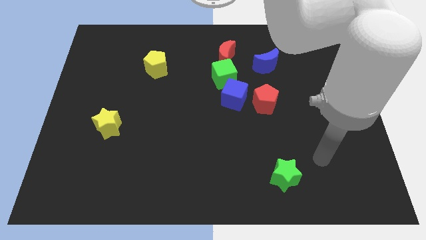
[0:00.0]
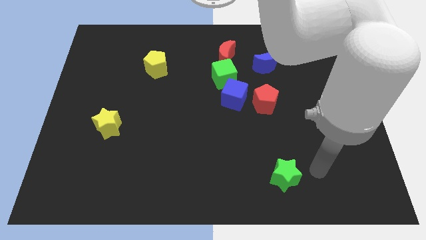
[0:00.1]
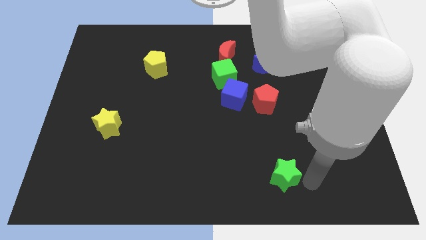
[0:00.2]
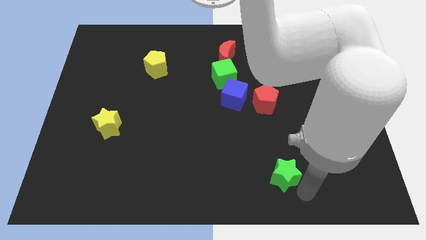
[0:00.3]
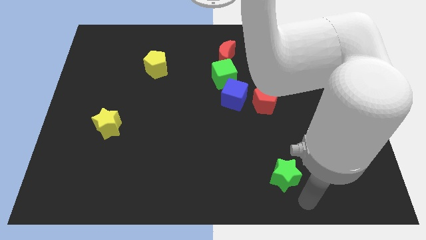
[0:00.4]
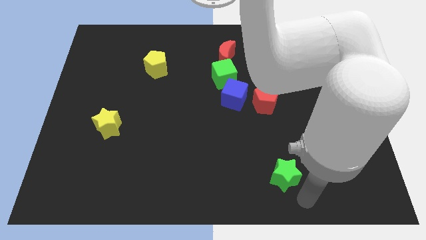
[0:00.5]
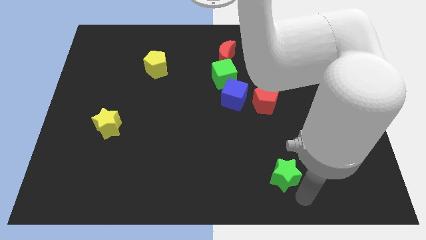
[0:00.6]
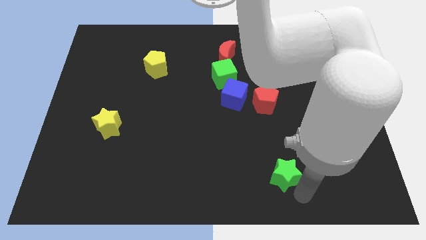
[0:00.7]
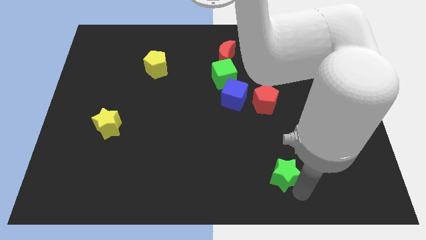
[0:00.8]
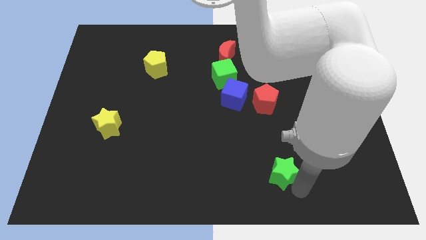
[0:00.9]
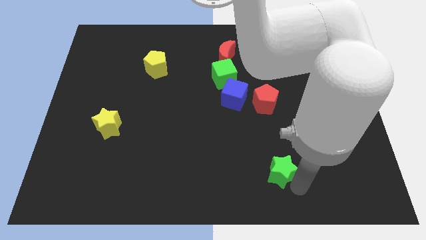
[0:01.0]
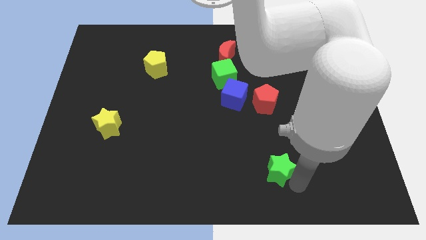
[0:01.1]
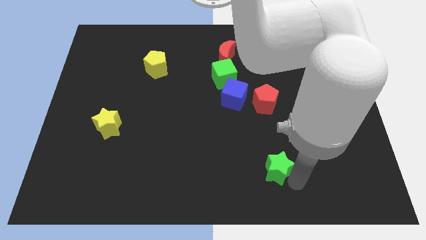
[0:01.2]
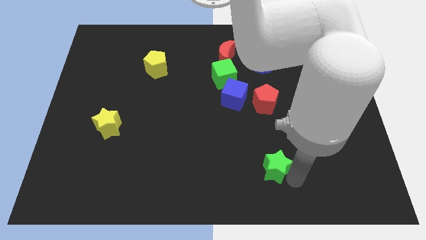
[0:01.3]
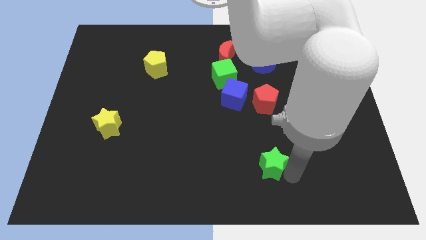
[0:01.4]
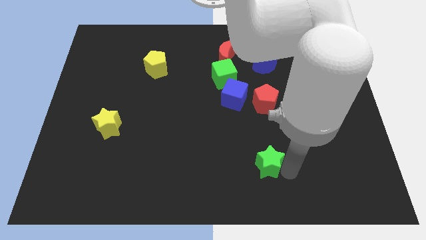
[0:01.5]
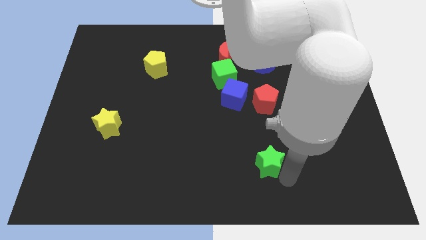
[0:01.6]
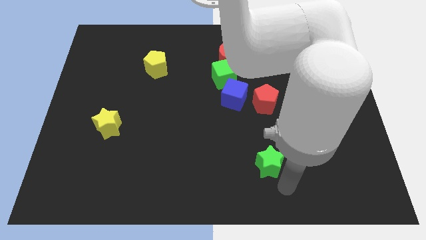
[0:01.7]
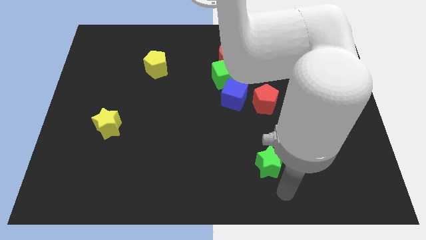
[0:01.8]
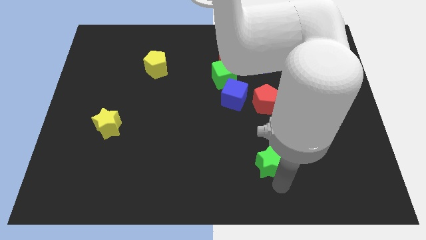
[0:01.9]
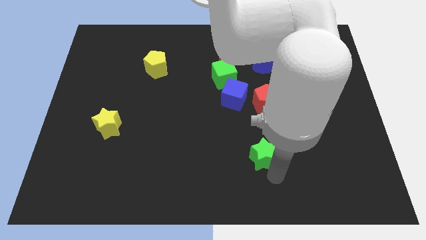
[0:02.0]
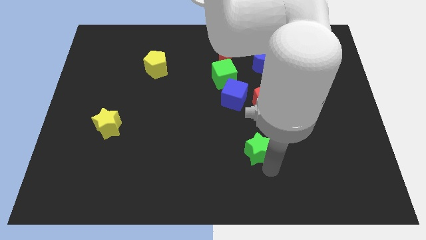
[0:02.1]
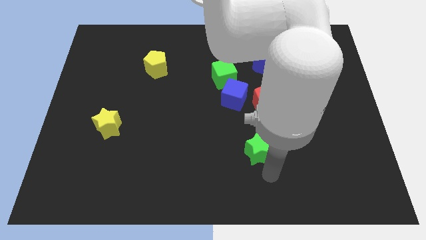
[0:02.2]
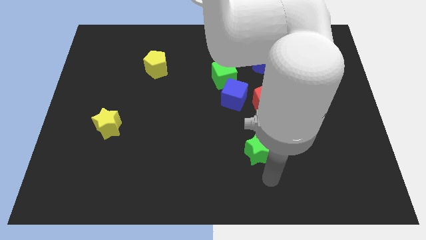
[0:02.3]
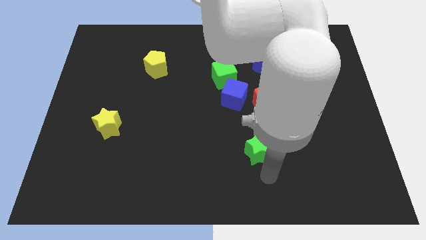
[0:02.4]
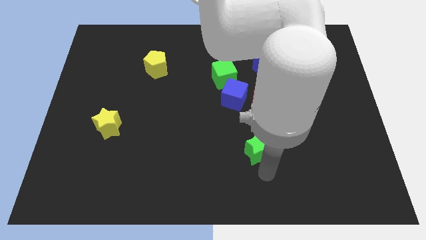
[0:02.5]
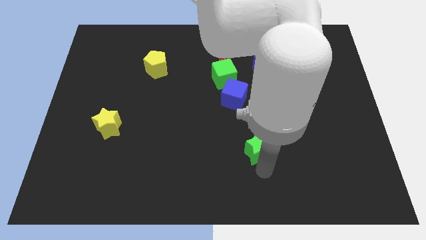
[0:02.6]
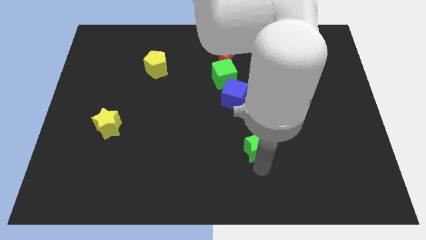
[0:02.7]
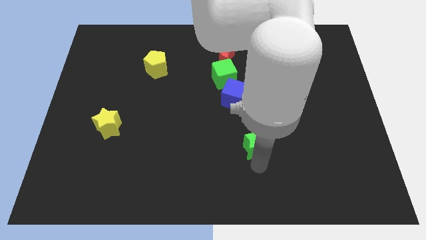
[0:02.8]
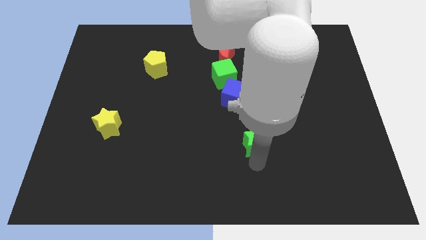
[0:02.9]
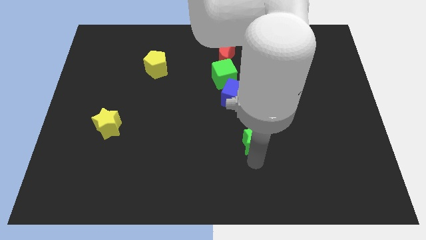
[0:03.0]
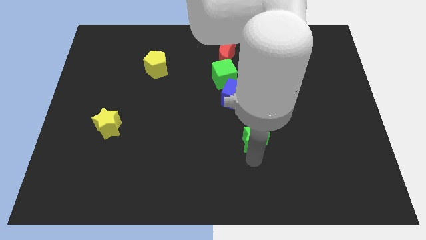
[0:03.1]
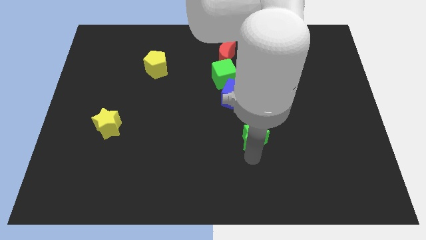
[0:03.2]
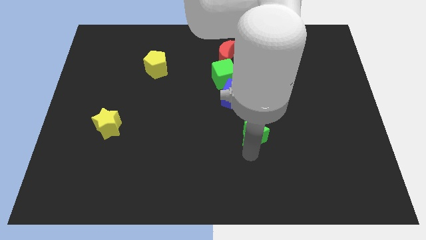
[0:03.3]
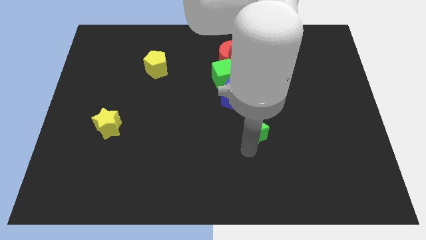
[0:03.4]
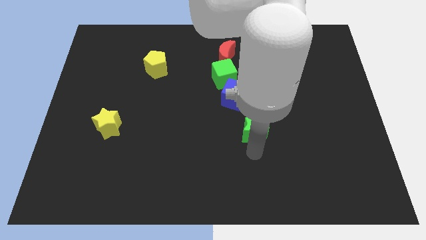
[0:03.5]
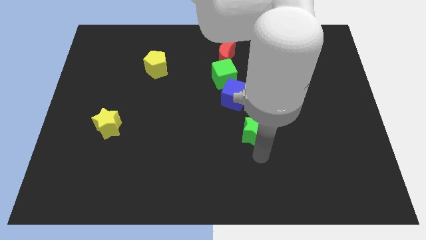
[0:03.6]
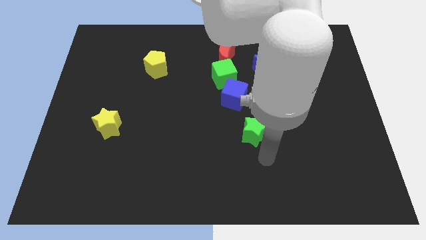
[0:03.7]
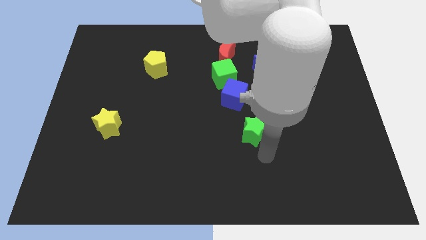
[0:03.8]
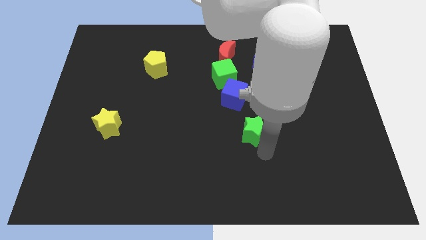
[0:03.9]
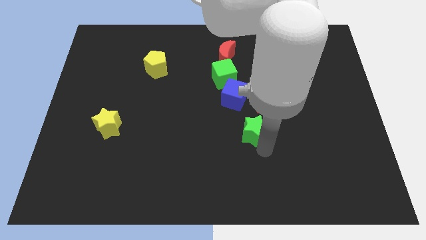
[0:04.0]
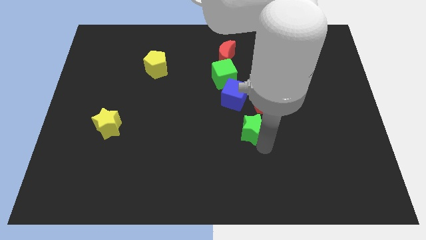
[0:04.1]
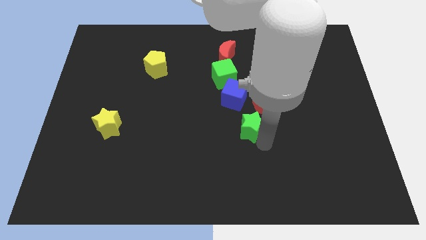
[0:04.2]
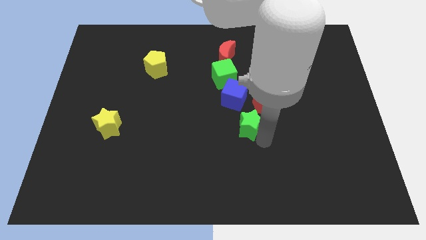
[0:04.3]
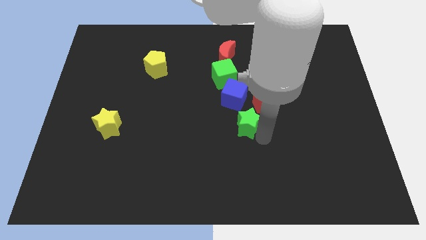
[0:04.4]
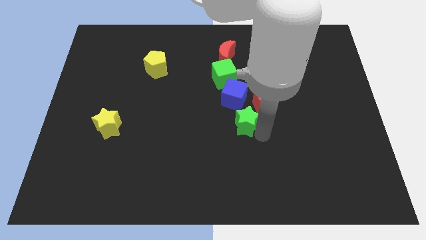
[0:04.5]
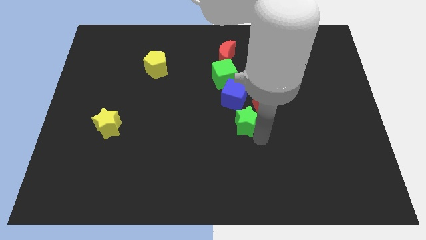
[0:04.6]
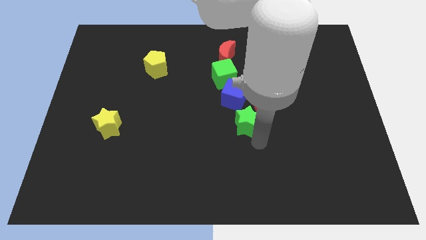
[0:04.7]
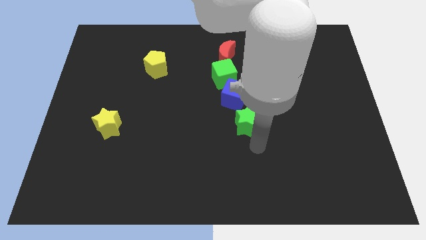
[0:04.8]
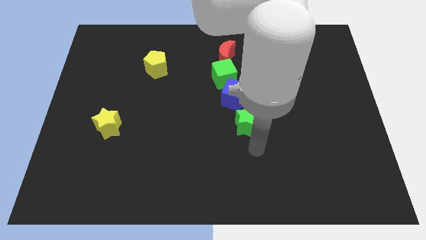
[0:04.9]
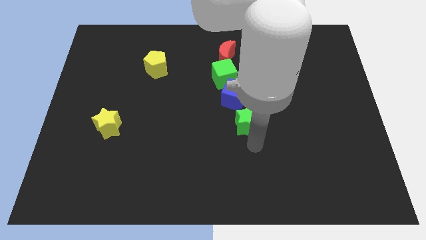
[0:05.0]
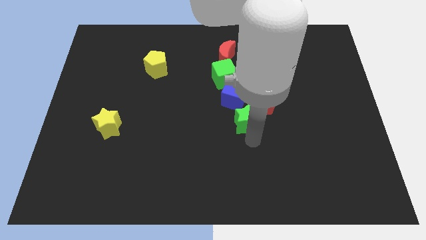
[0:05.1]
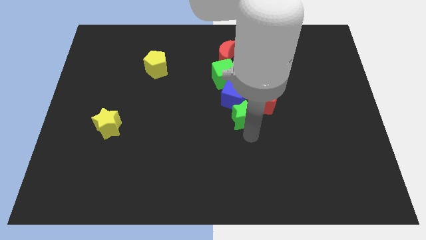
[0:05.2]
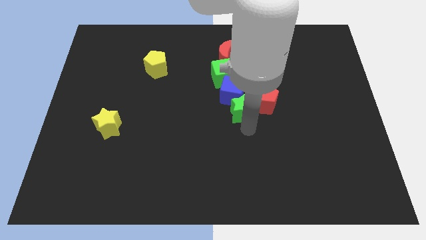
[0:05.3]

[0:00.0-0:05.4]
slide the green star towards the blue cube

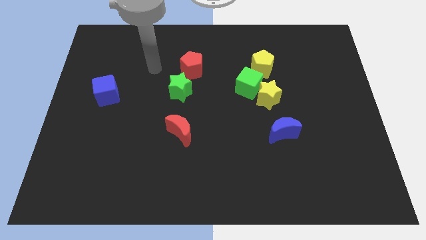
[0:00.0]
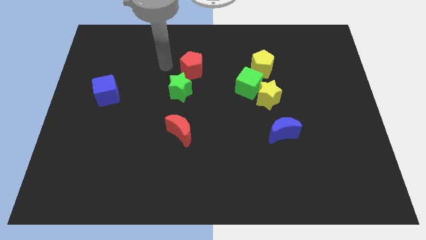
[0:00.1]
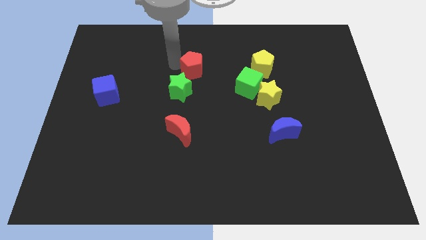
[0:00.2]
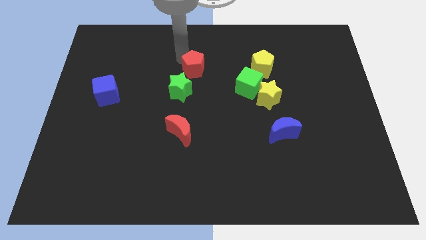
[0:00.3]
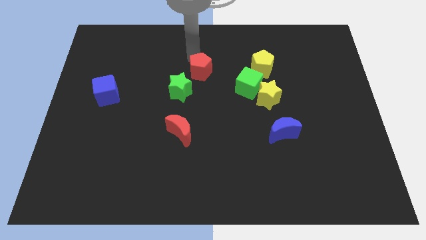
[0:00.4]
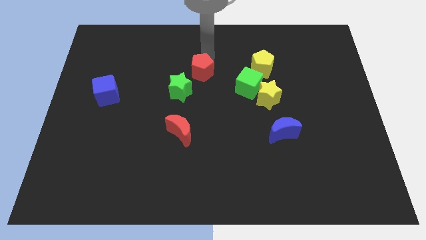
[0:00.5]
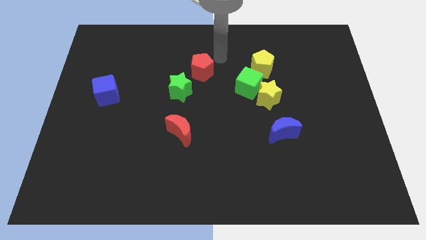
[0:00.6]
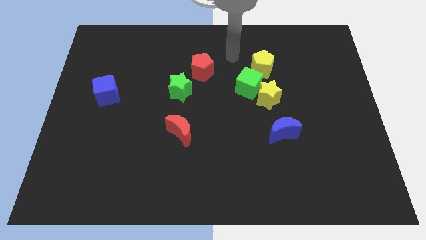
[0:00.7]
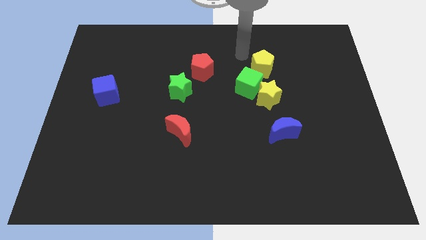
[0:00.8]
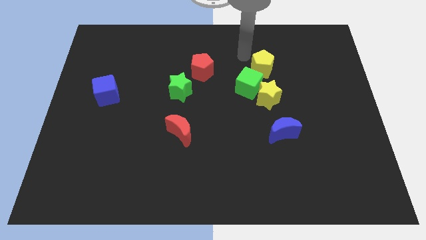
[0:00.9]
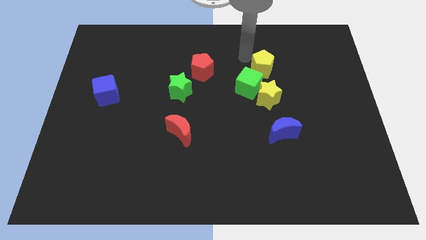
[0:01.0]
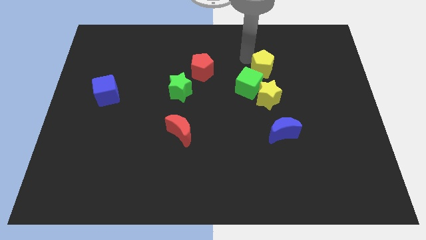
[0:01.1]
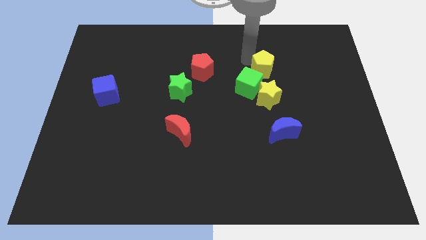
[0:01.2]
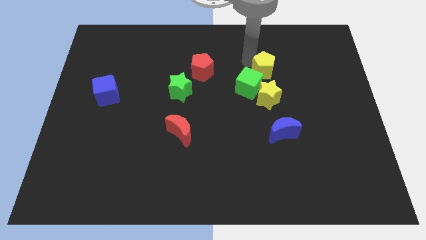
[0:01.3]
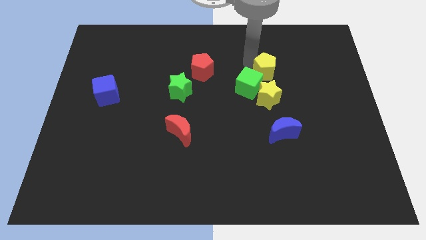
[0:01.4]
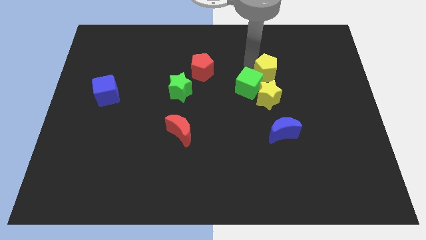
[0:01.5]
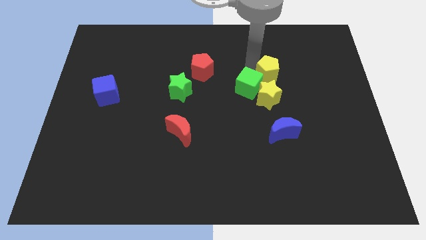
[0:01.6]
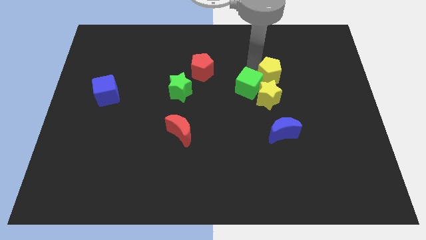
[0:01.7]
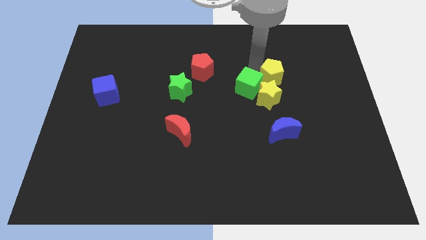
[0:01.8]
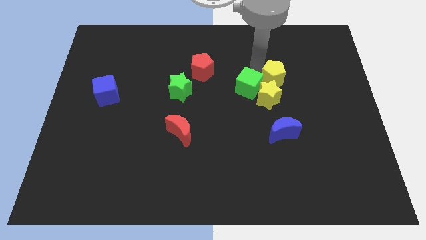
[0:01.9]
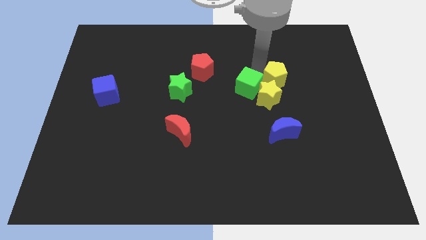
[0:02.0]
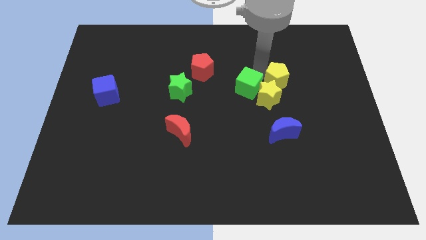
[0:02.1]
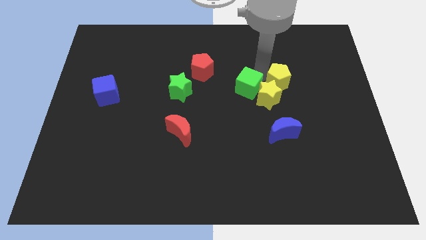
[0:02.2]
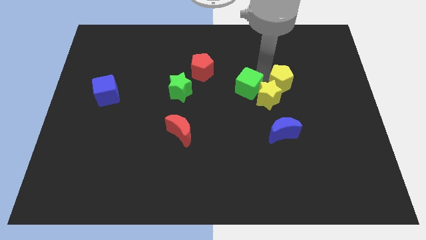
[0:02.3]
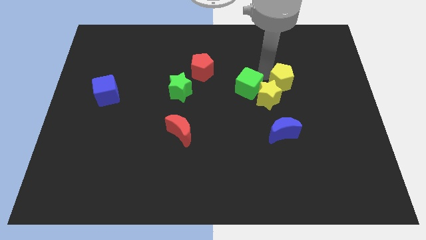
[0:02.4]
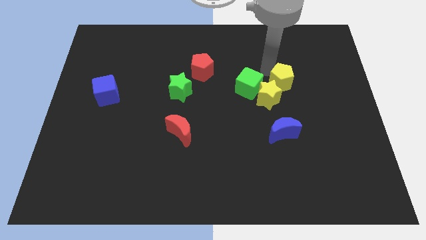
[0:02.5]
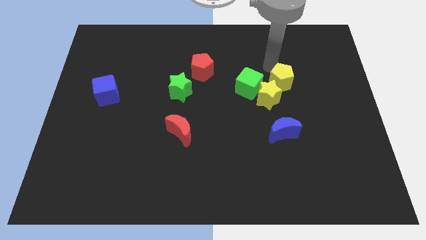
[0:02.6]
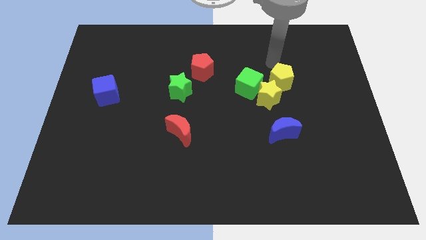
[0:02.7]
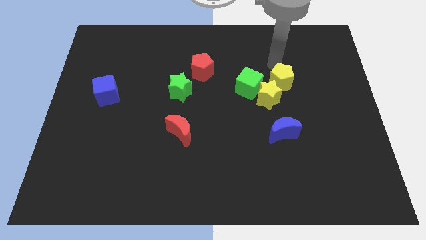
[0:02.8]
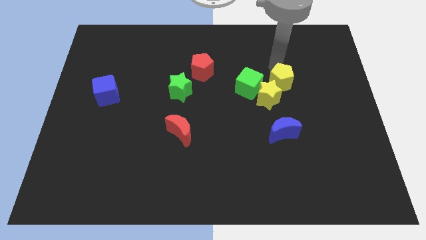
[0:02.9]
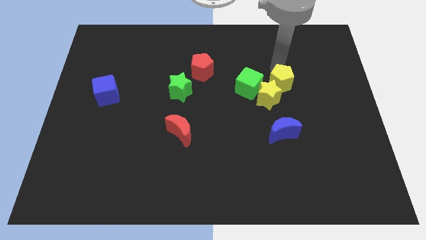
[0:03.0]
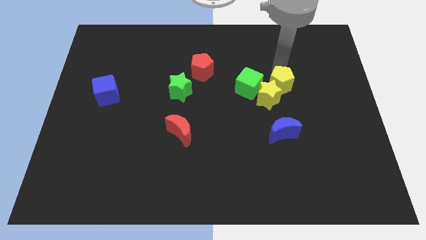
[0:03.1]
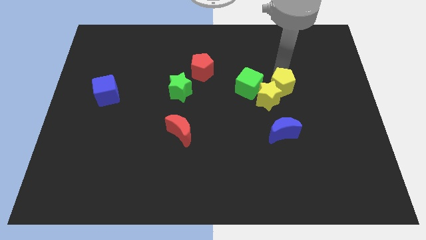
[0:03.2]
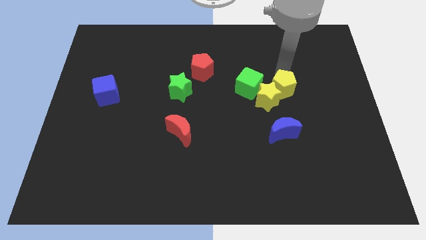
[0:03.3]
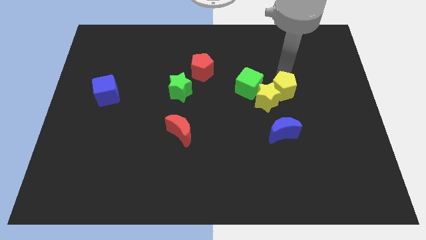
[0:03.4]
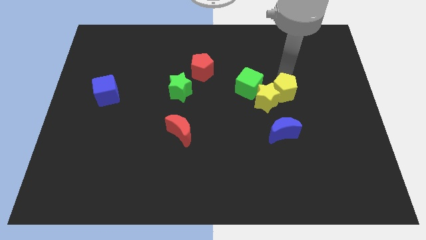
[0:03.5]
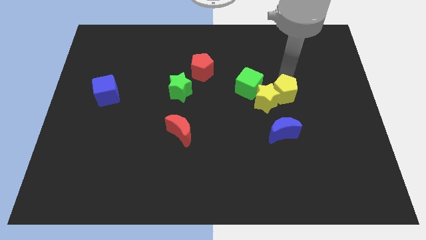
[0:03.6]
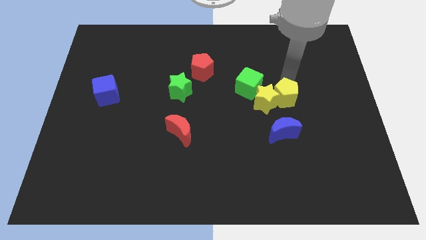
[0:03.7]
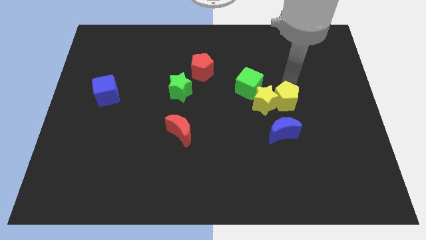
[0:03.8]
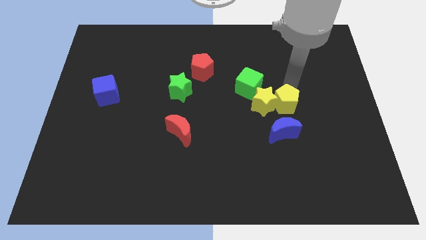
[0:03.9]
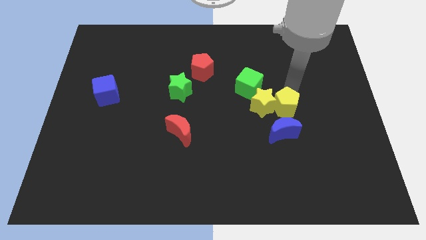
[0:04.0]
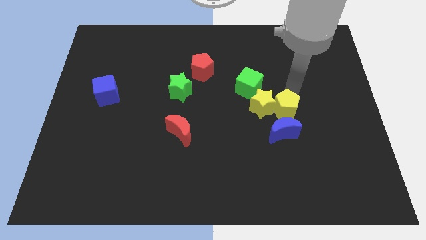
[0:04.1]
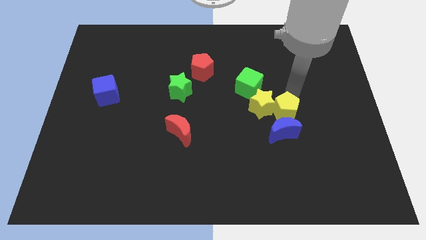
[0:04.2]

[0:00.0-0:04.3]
move the yellow pentagon close to the blue moon
